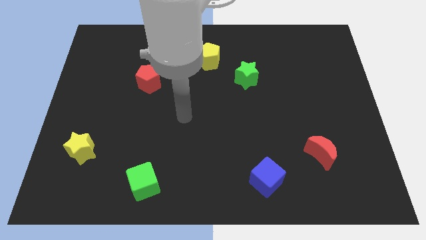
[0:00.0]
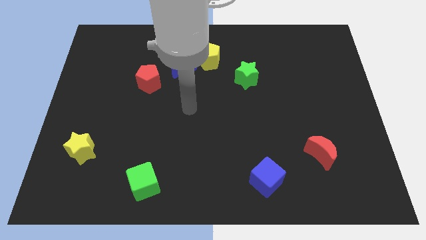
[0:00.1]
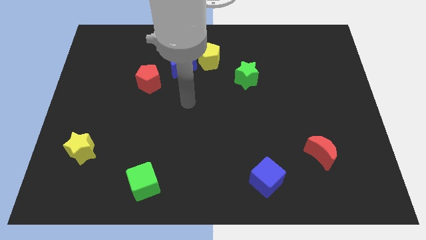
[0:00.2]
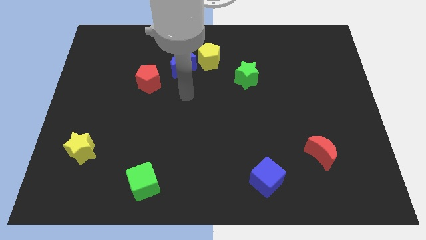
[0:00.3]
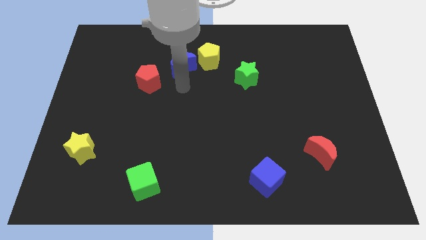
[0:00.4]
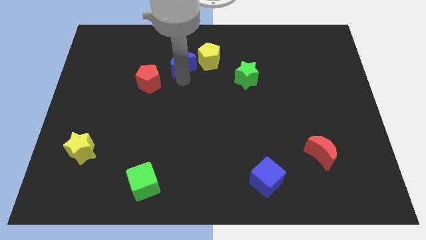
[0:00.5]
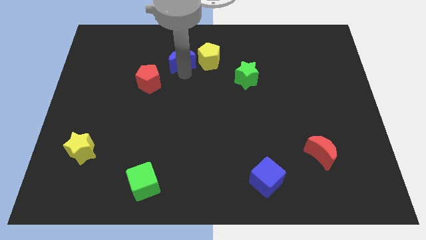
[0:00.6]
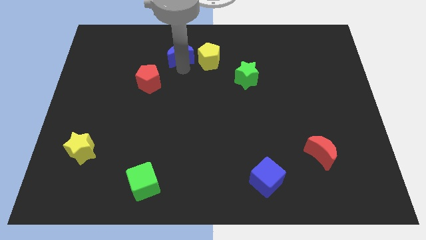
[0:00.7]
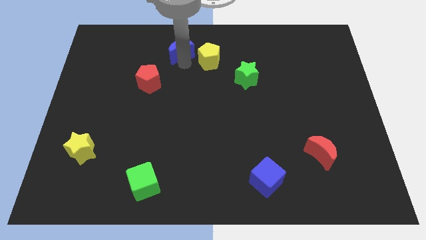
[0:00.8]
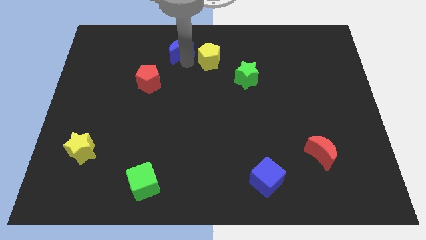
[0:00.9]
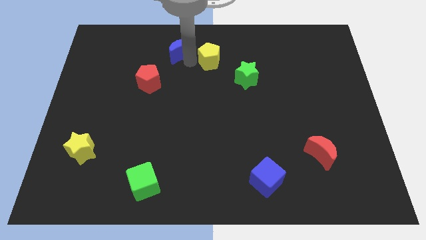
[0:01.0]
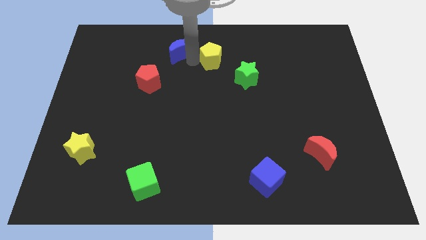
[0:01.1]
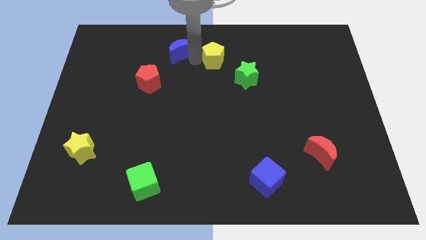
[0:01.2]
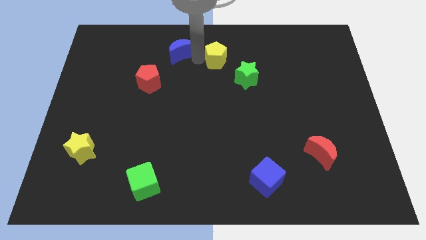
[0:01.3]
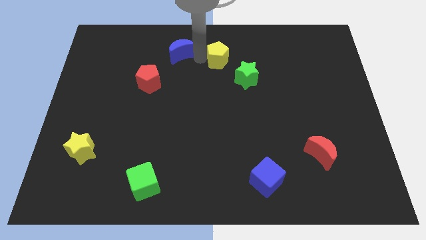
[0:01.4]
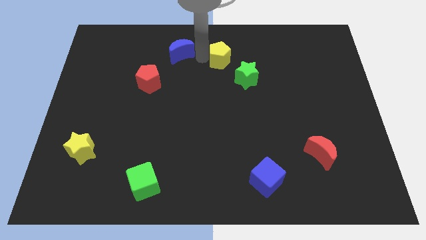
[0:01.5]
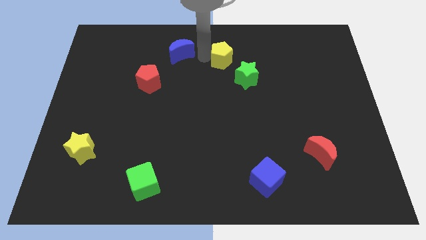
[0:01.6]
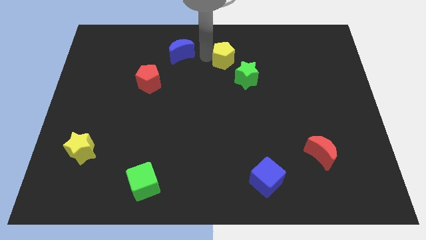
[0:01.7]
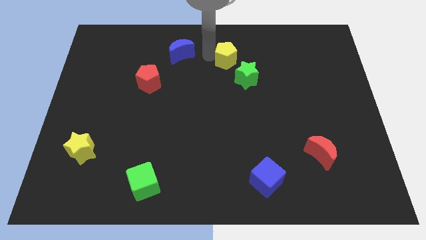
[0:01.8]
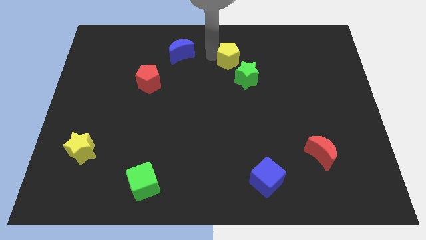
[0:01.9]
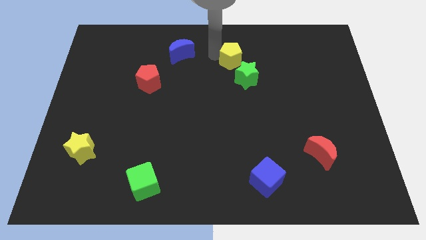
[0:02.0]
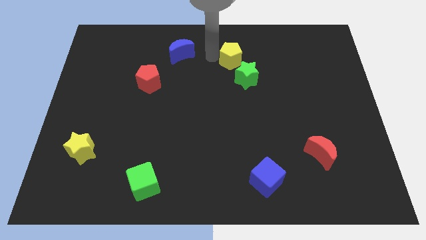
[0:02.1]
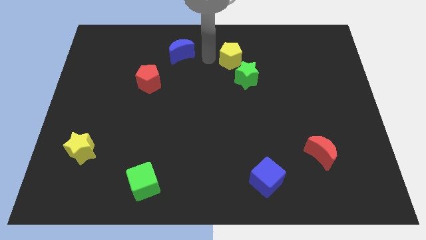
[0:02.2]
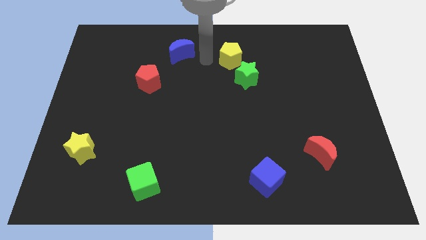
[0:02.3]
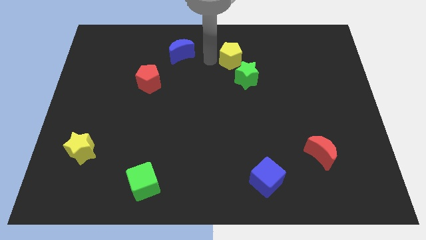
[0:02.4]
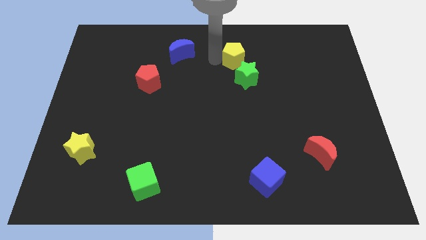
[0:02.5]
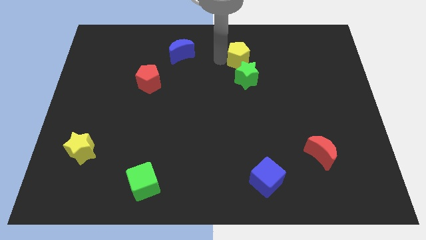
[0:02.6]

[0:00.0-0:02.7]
move the yellow pentagon somewhat to the right

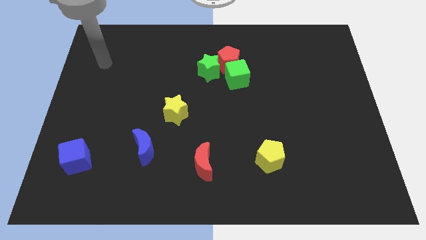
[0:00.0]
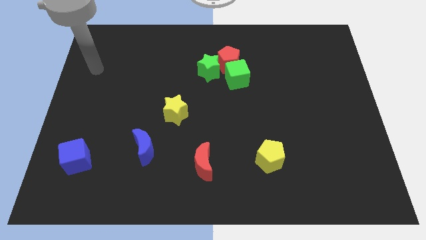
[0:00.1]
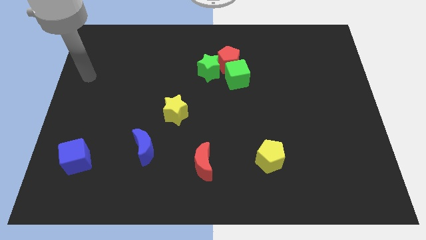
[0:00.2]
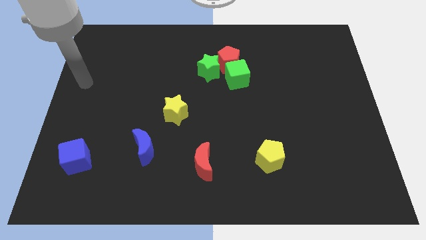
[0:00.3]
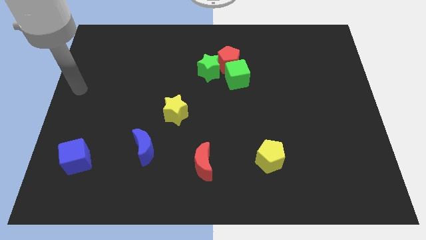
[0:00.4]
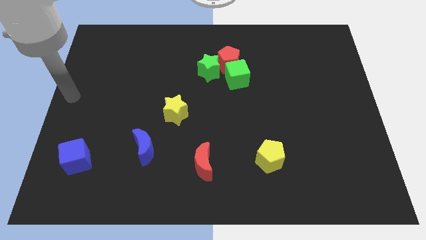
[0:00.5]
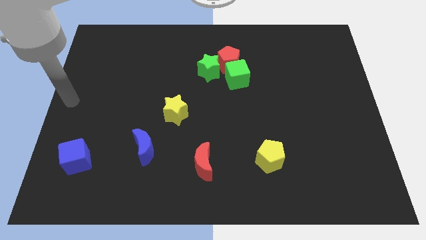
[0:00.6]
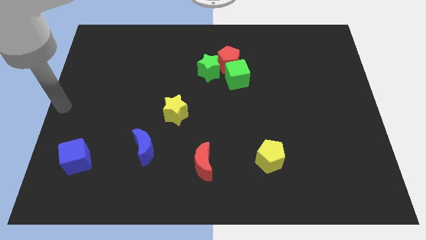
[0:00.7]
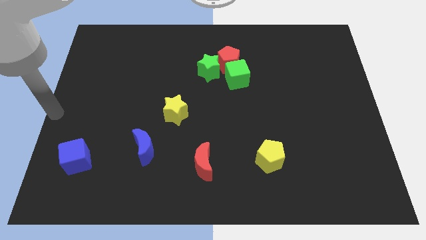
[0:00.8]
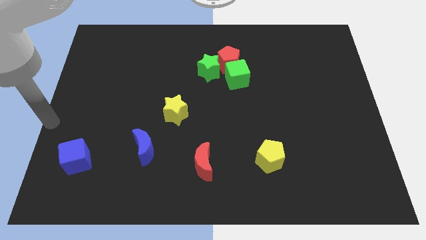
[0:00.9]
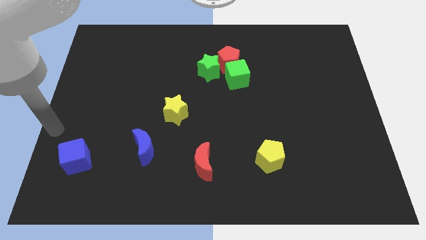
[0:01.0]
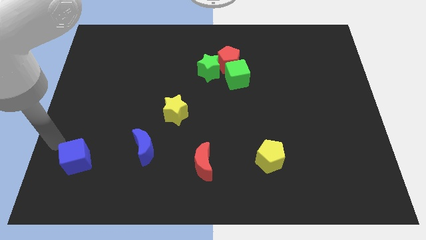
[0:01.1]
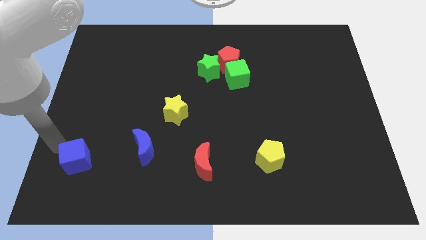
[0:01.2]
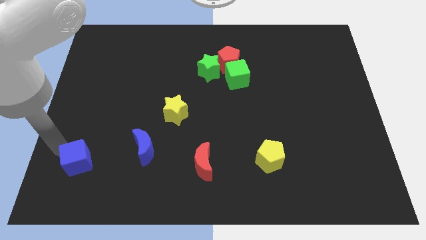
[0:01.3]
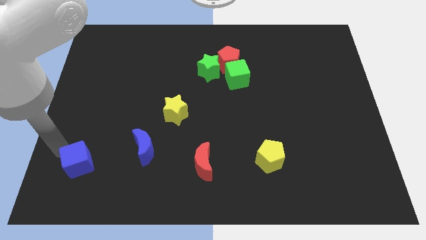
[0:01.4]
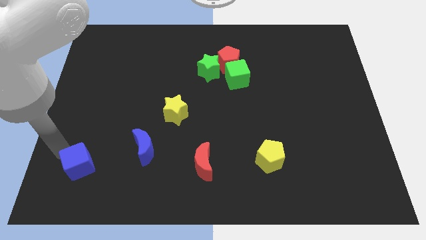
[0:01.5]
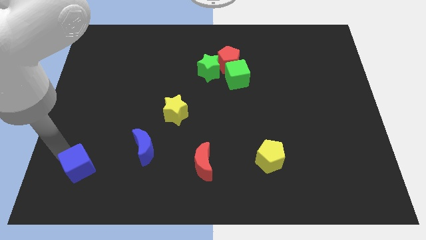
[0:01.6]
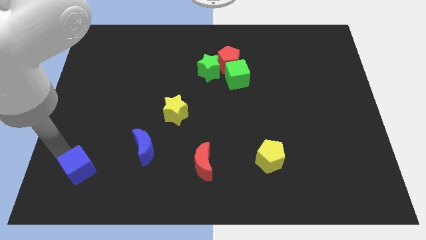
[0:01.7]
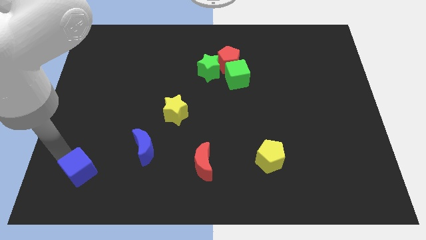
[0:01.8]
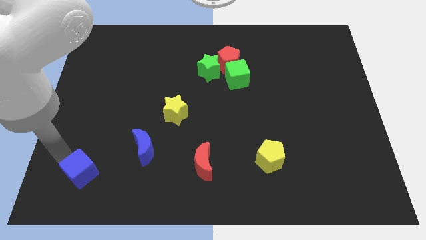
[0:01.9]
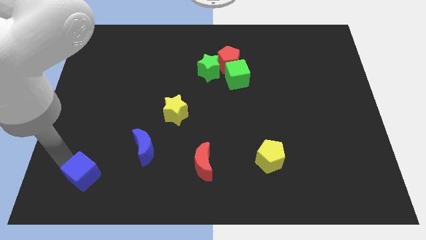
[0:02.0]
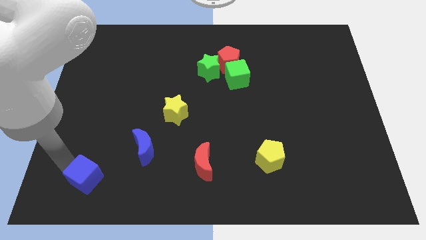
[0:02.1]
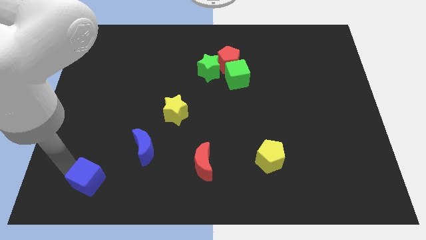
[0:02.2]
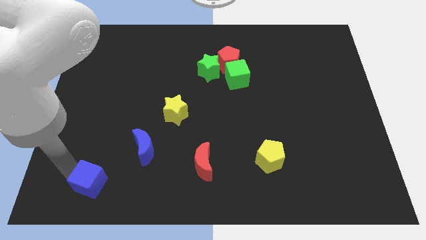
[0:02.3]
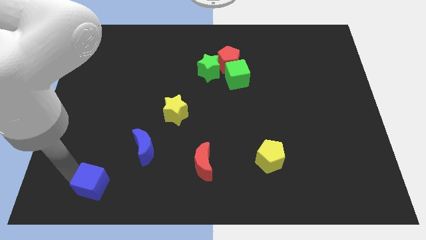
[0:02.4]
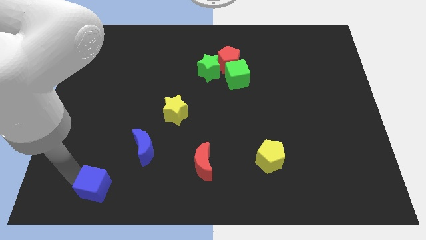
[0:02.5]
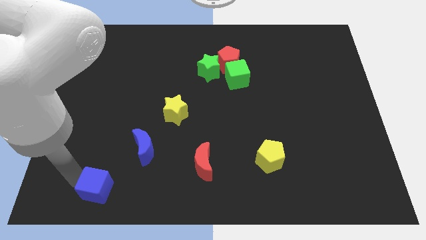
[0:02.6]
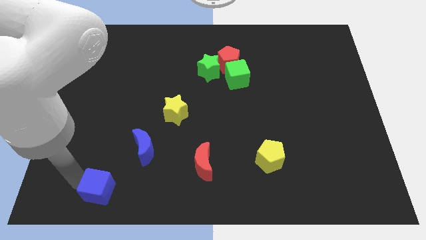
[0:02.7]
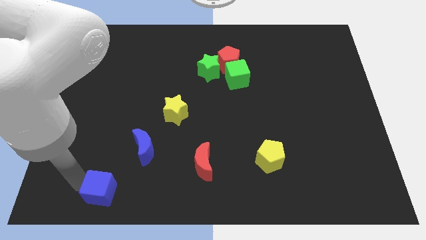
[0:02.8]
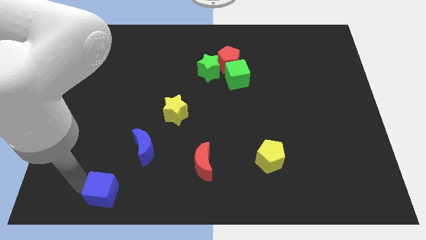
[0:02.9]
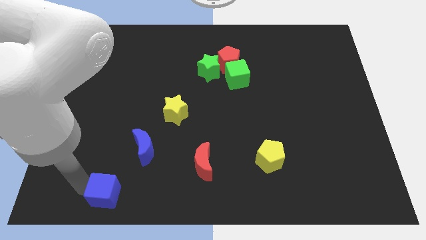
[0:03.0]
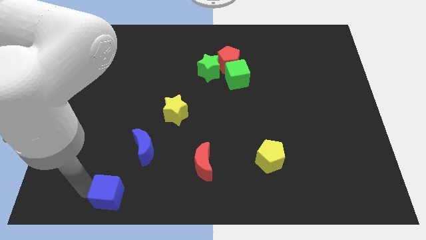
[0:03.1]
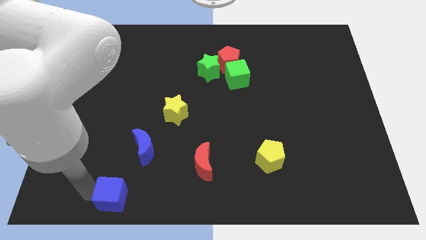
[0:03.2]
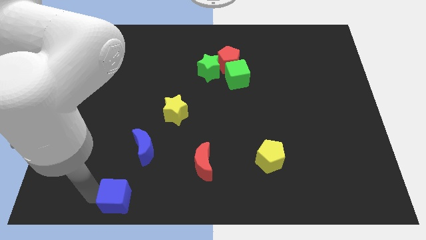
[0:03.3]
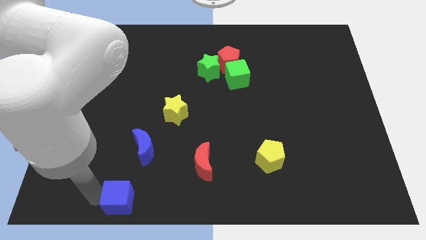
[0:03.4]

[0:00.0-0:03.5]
slightly move the blue cube to the right

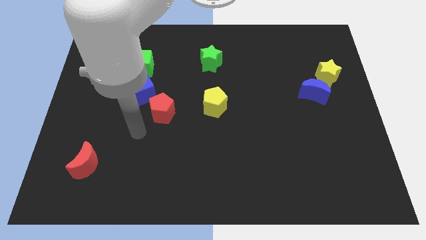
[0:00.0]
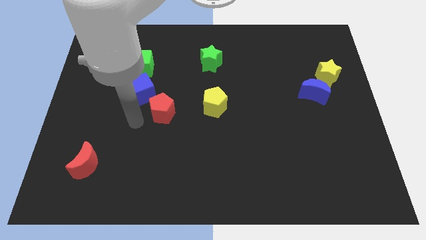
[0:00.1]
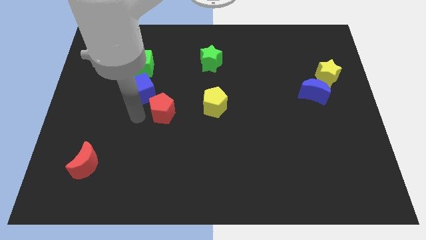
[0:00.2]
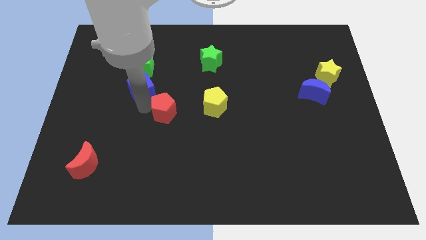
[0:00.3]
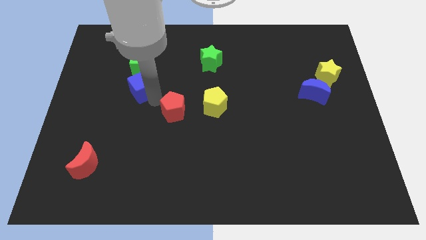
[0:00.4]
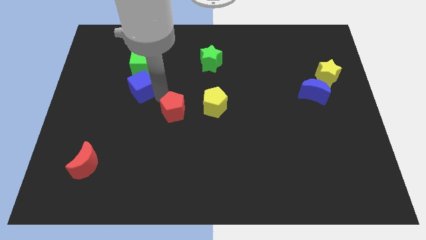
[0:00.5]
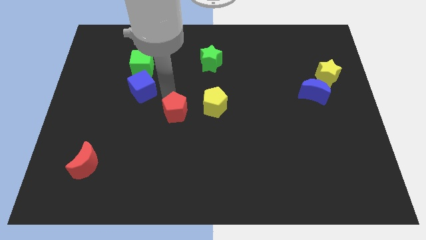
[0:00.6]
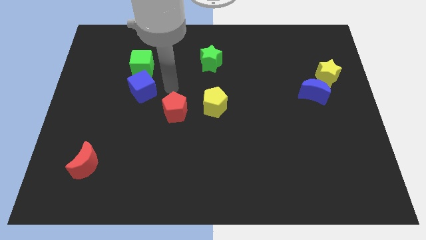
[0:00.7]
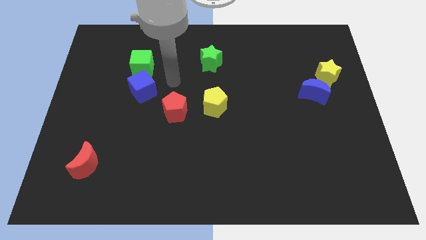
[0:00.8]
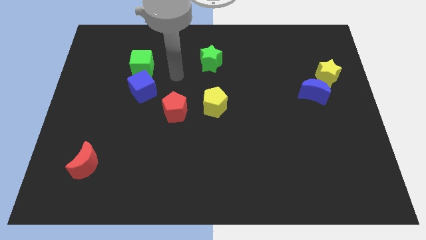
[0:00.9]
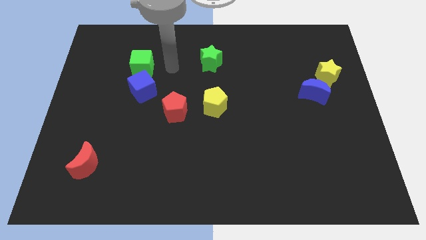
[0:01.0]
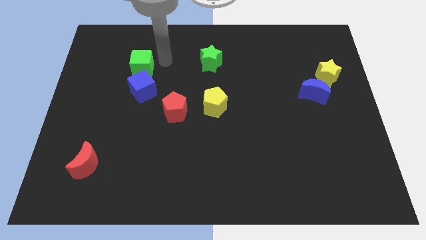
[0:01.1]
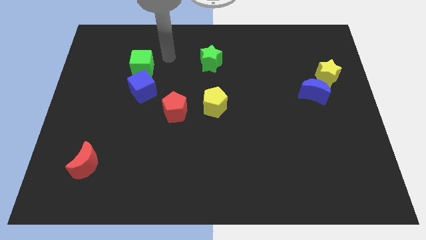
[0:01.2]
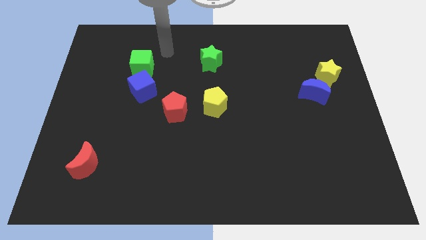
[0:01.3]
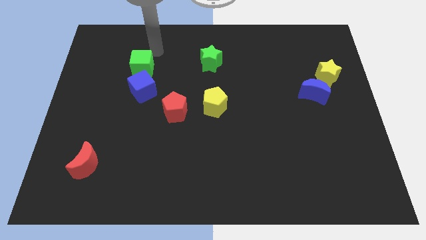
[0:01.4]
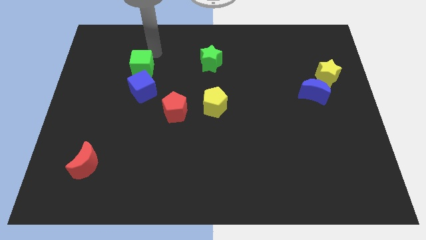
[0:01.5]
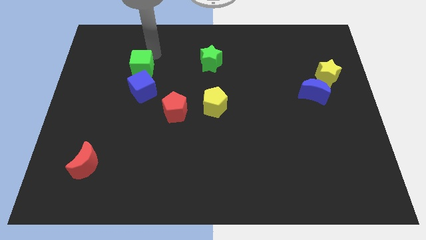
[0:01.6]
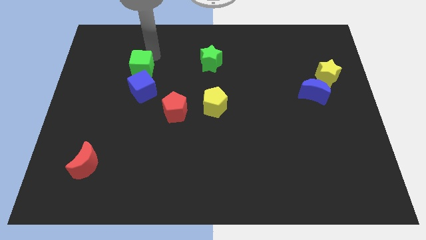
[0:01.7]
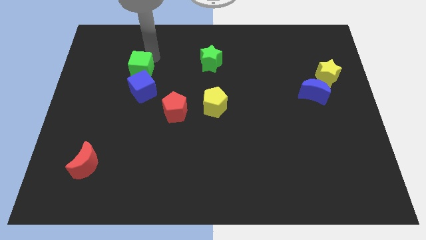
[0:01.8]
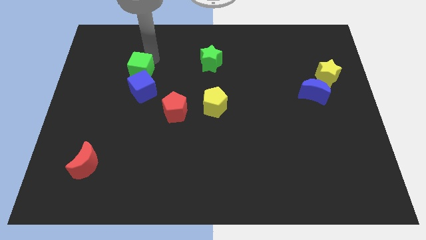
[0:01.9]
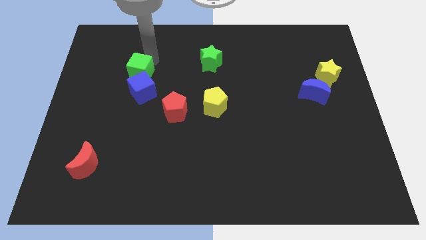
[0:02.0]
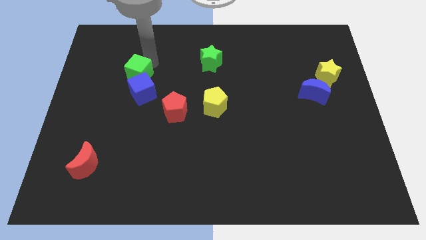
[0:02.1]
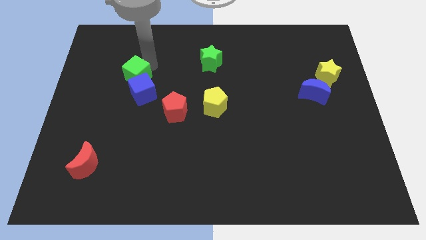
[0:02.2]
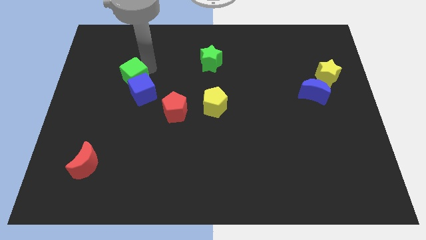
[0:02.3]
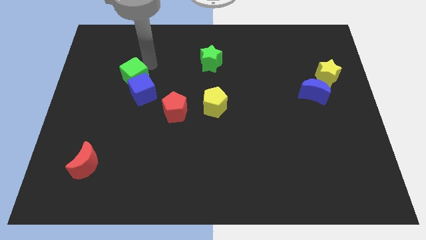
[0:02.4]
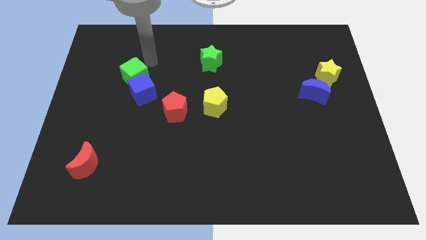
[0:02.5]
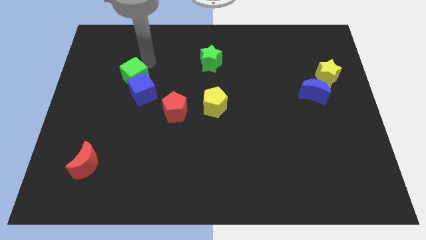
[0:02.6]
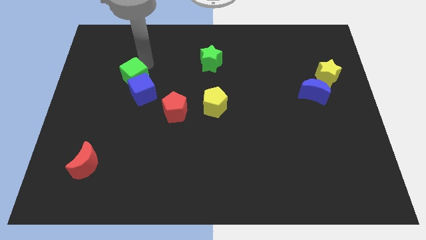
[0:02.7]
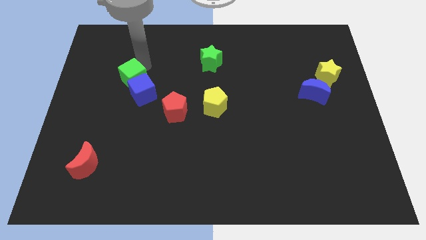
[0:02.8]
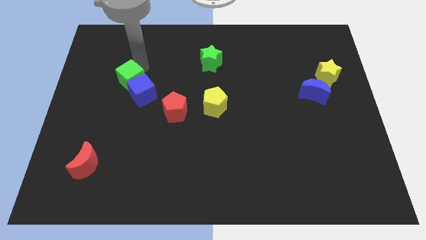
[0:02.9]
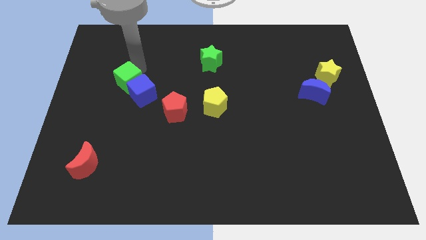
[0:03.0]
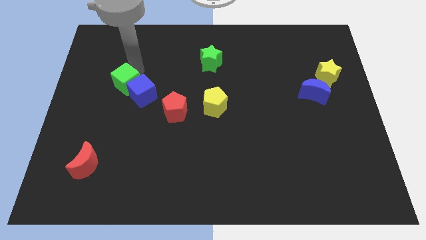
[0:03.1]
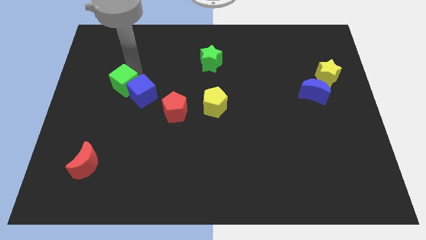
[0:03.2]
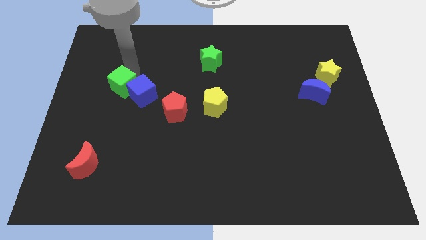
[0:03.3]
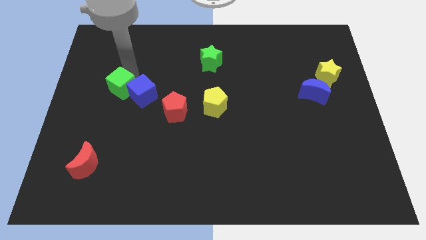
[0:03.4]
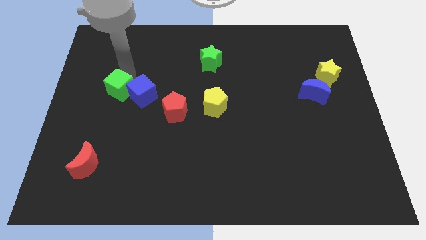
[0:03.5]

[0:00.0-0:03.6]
push the green cube slightly down
